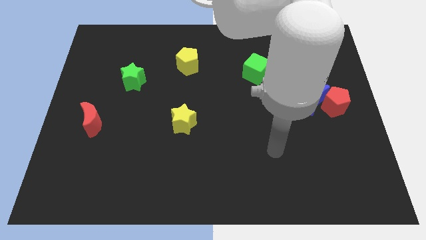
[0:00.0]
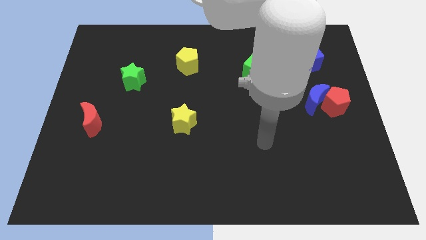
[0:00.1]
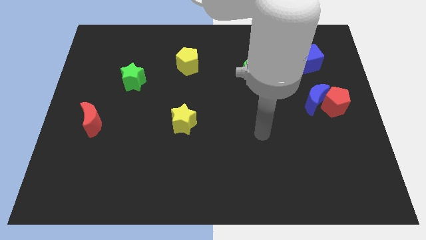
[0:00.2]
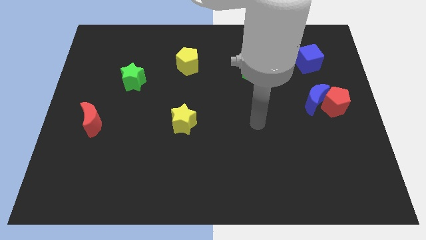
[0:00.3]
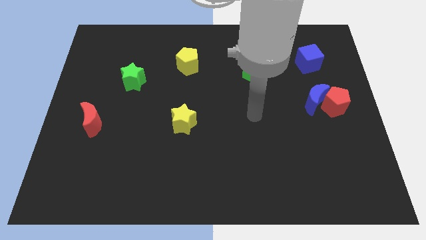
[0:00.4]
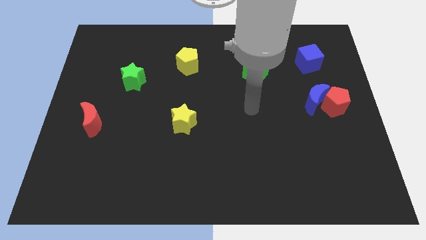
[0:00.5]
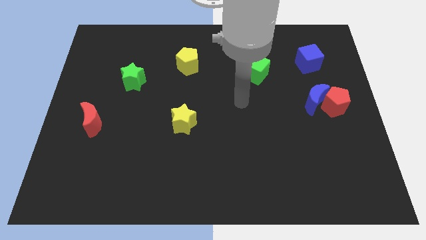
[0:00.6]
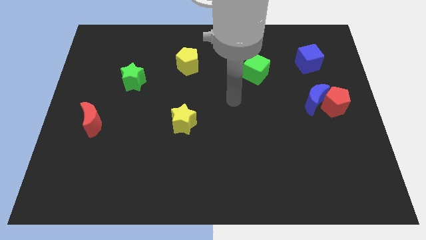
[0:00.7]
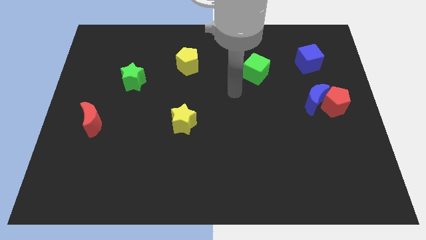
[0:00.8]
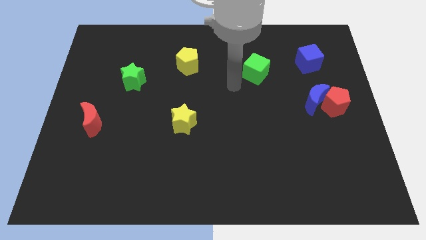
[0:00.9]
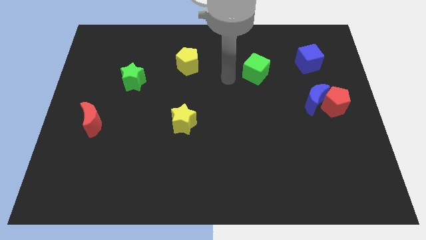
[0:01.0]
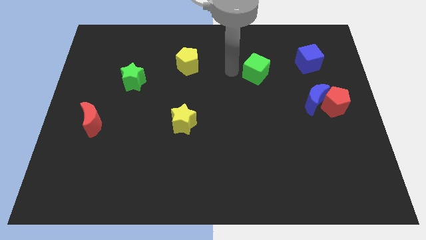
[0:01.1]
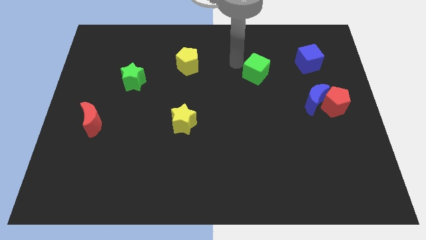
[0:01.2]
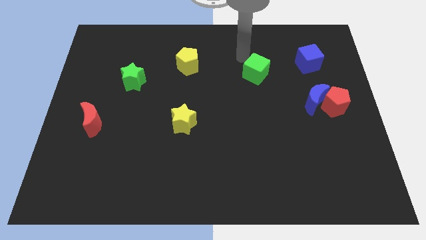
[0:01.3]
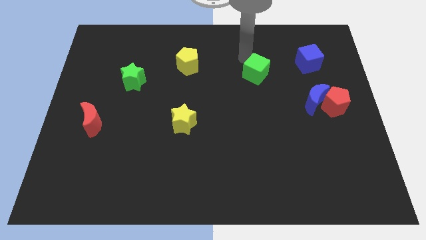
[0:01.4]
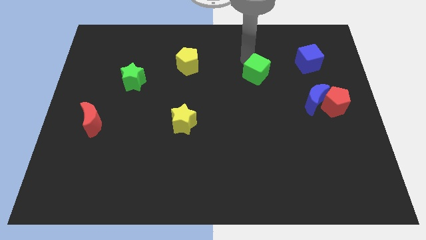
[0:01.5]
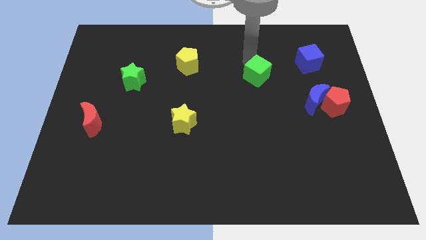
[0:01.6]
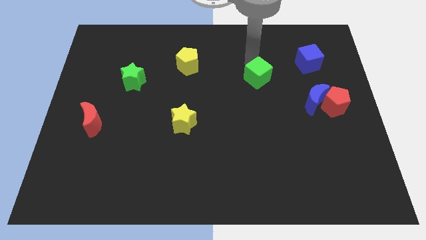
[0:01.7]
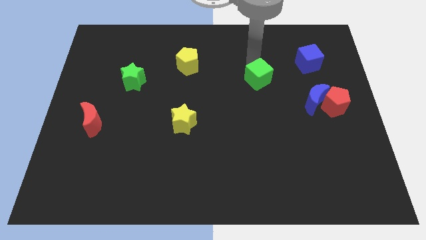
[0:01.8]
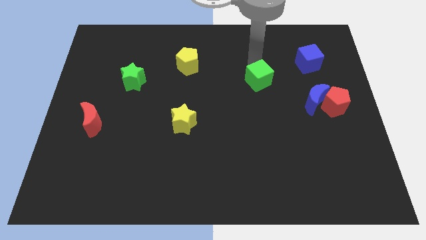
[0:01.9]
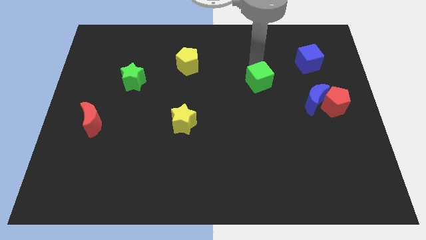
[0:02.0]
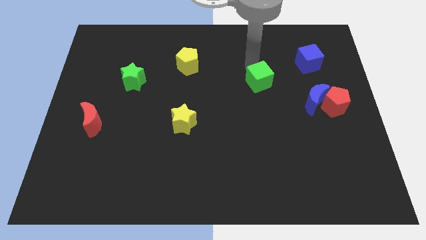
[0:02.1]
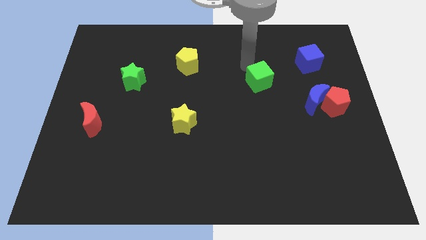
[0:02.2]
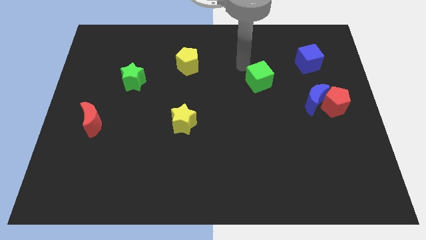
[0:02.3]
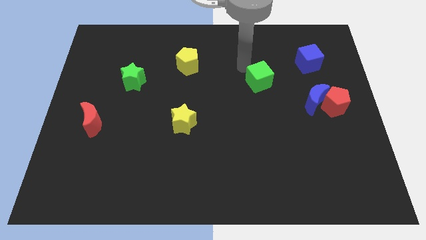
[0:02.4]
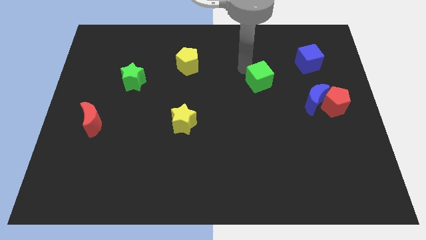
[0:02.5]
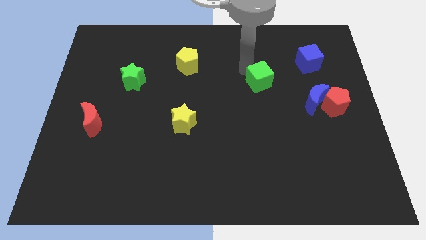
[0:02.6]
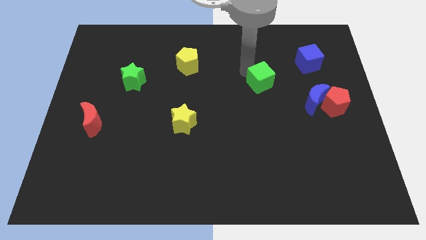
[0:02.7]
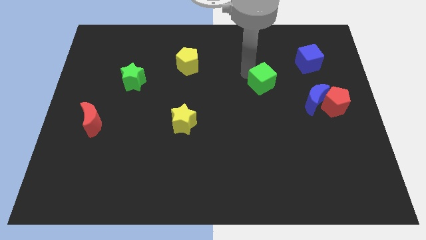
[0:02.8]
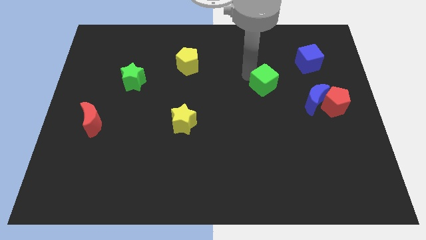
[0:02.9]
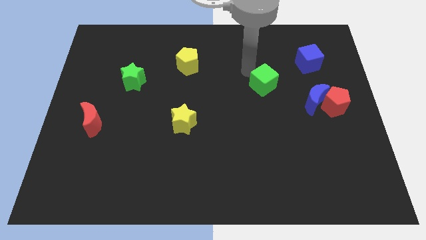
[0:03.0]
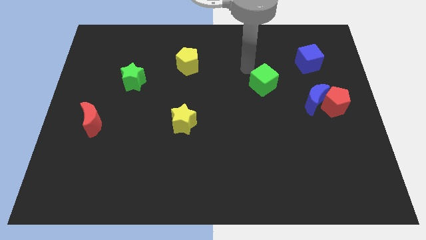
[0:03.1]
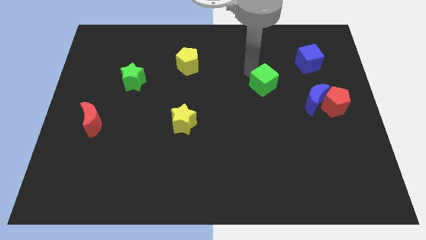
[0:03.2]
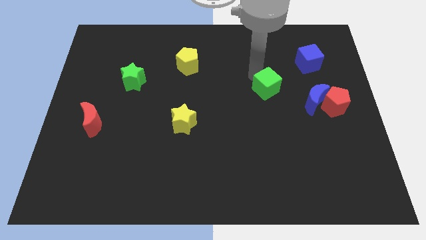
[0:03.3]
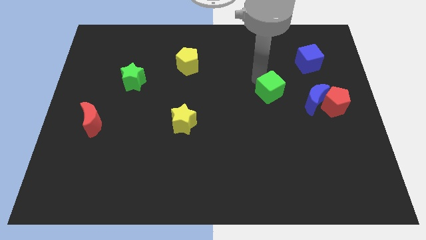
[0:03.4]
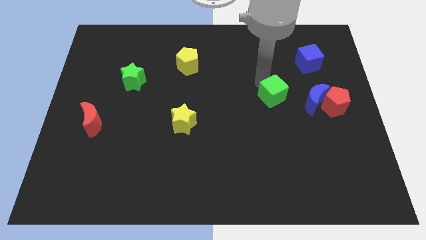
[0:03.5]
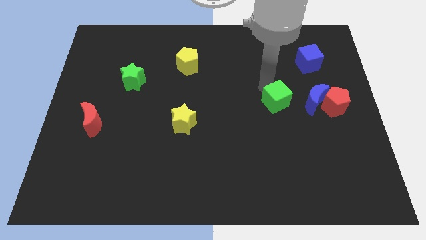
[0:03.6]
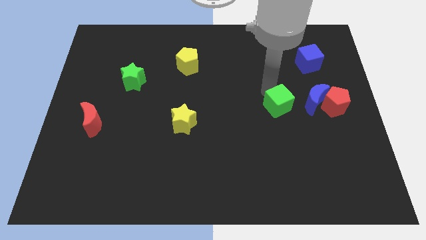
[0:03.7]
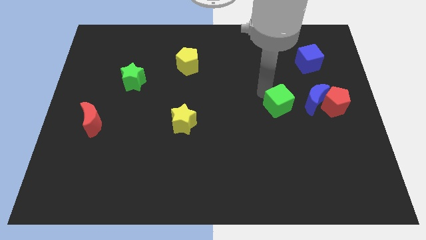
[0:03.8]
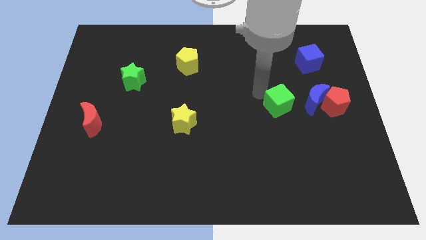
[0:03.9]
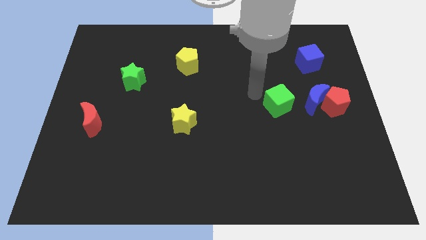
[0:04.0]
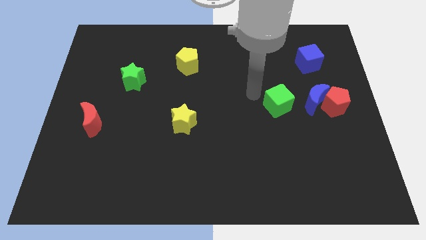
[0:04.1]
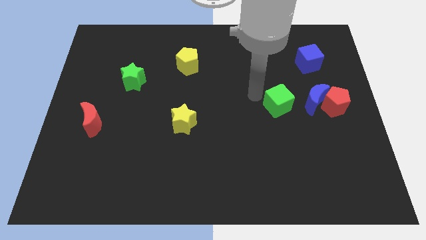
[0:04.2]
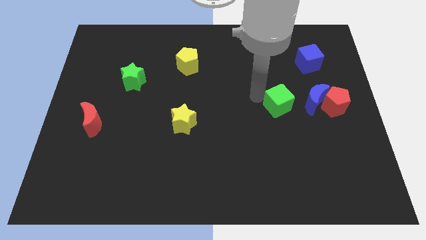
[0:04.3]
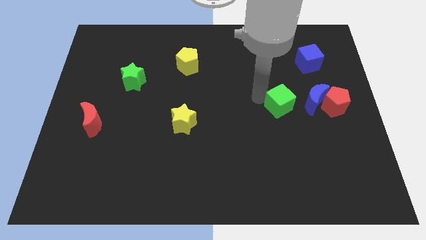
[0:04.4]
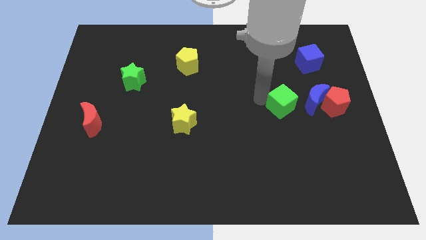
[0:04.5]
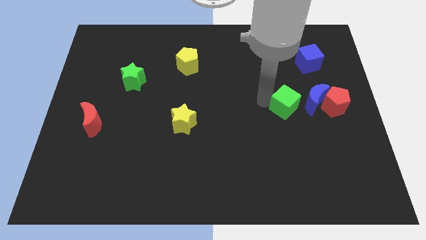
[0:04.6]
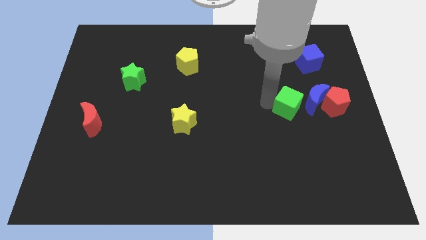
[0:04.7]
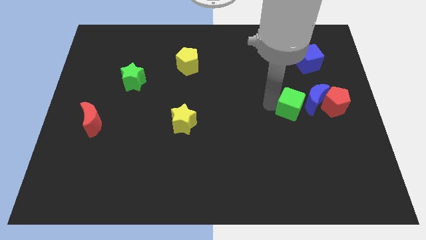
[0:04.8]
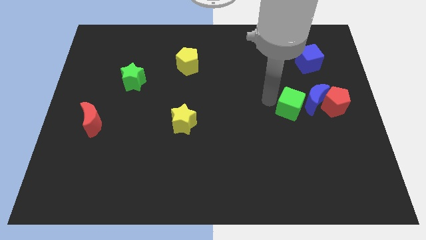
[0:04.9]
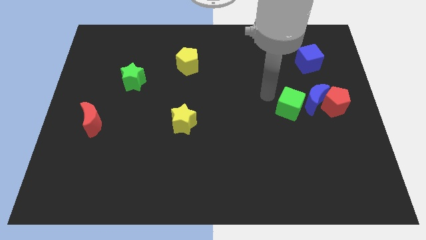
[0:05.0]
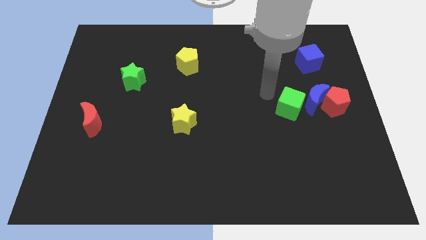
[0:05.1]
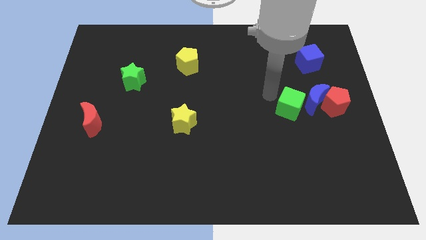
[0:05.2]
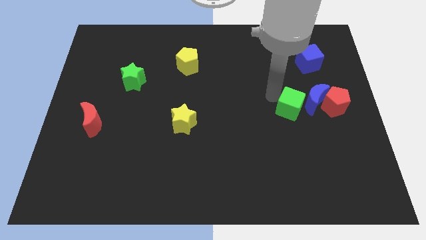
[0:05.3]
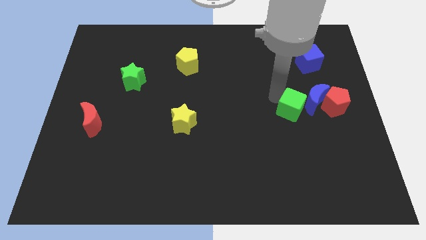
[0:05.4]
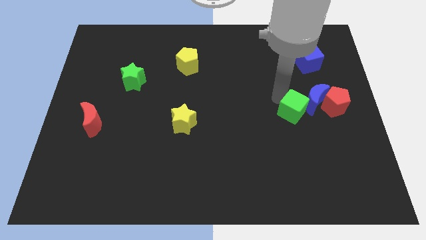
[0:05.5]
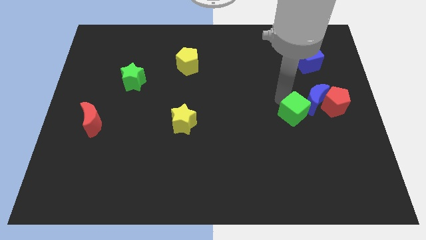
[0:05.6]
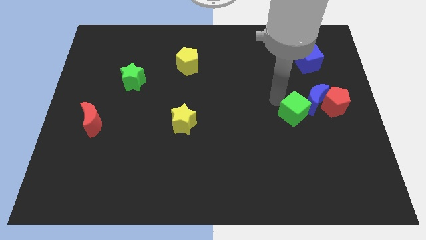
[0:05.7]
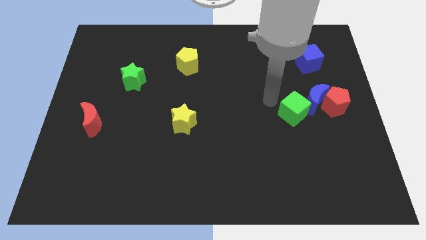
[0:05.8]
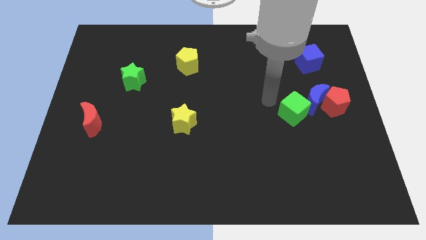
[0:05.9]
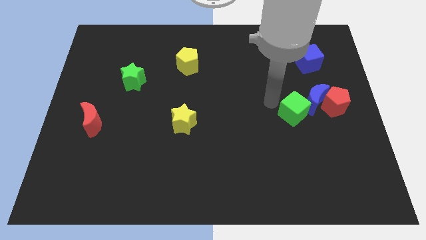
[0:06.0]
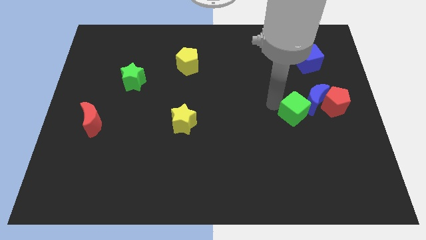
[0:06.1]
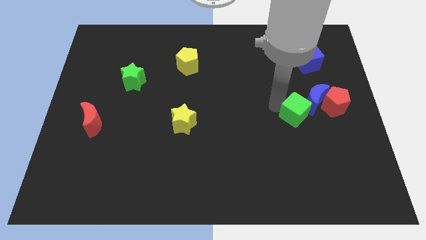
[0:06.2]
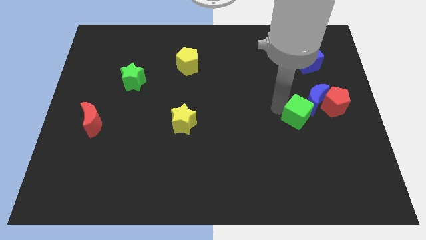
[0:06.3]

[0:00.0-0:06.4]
move the green cube to the bottom left of the red pentagon
